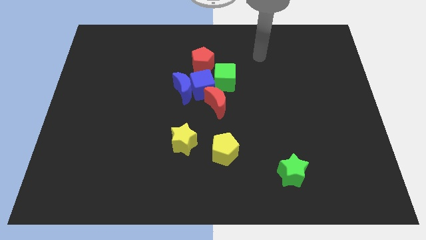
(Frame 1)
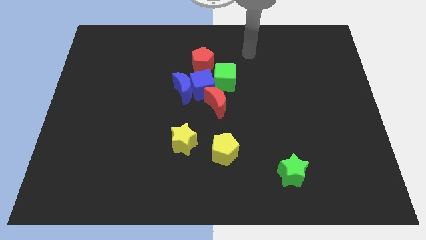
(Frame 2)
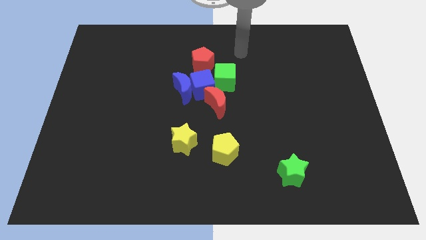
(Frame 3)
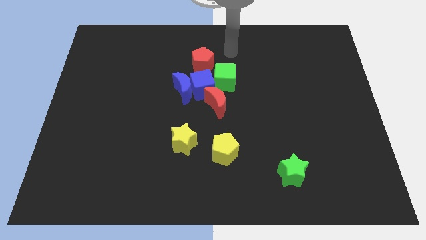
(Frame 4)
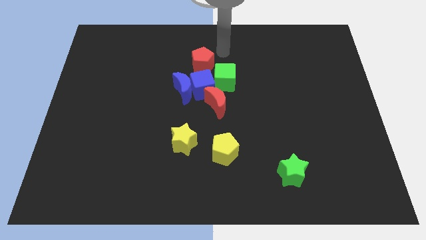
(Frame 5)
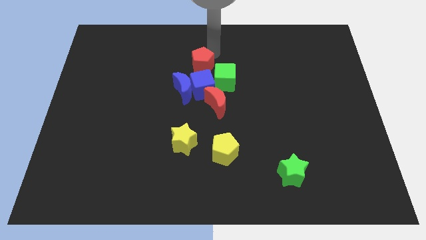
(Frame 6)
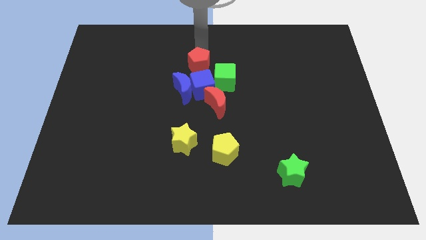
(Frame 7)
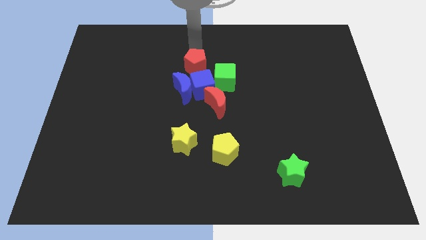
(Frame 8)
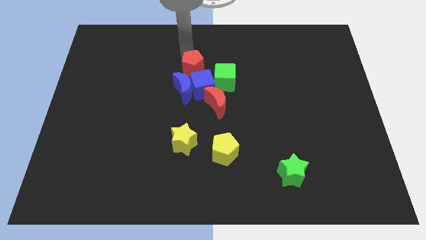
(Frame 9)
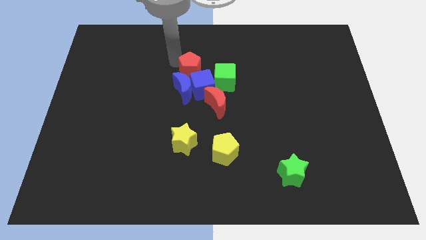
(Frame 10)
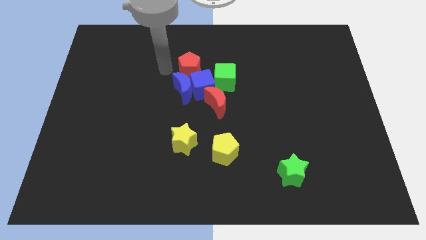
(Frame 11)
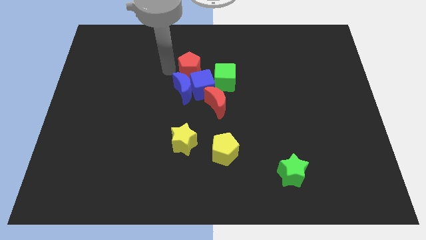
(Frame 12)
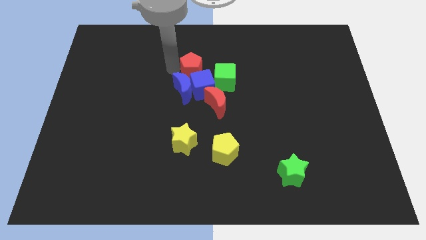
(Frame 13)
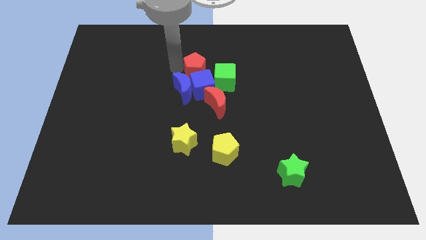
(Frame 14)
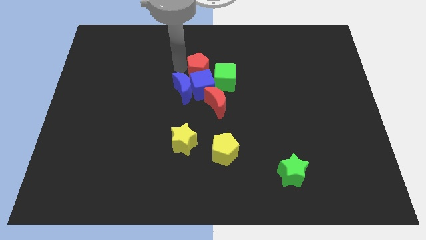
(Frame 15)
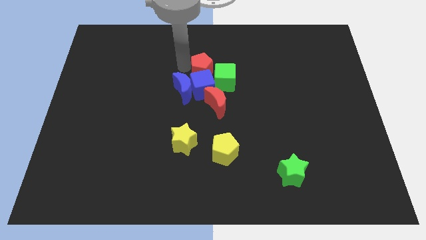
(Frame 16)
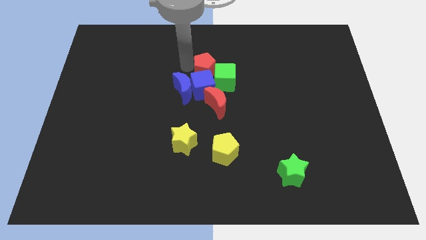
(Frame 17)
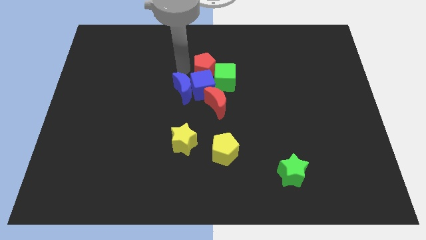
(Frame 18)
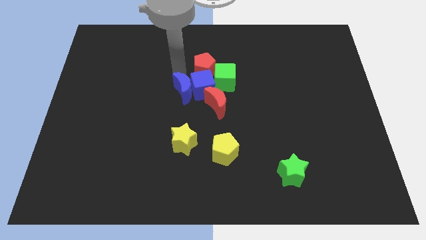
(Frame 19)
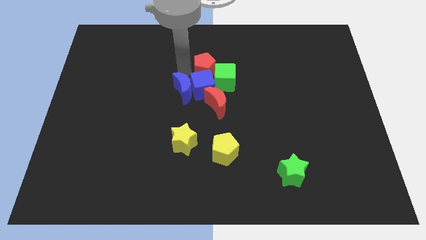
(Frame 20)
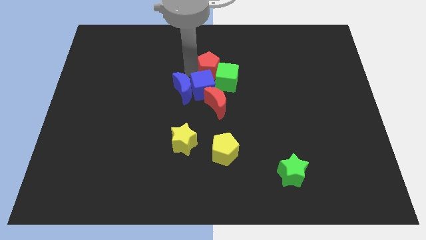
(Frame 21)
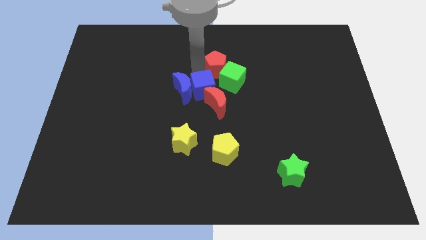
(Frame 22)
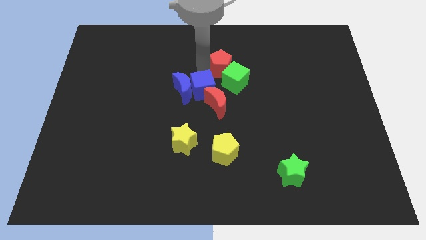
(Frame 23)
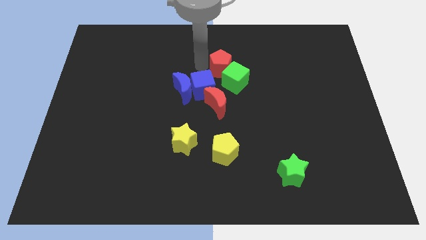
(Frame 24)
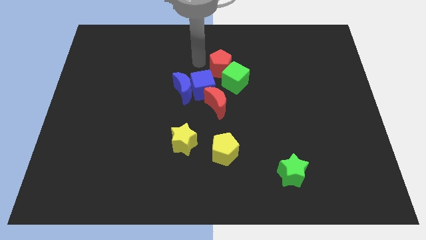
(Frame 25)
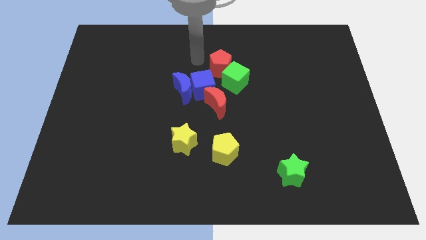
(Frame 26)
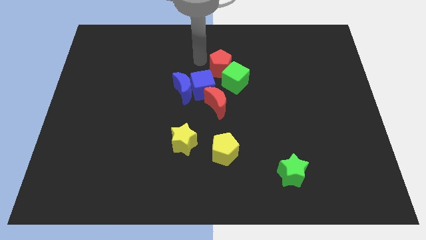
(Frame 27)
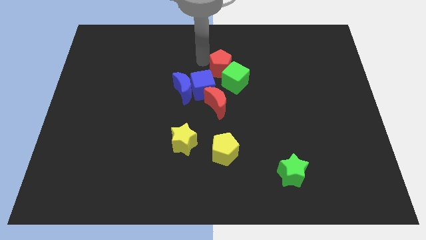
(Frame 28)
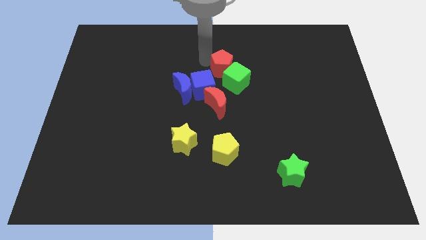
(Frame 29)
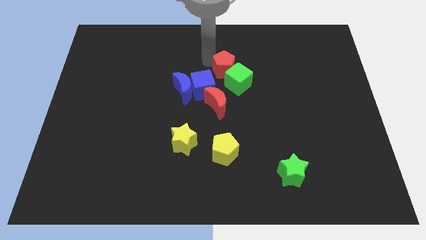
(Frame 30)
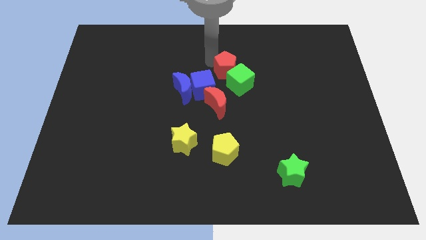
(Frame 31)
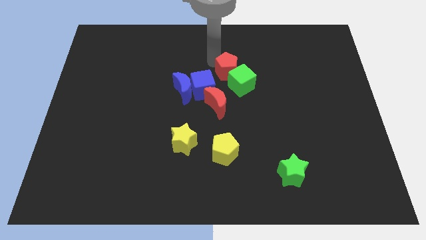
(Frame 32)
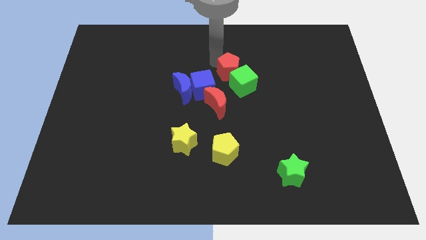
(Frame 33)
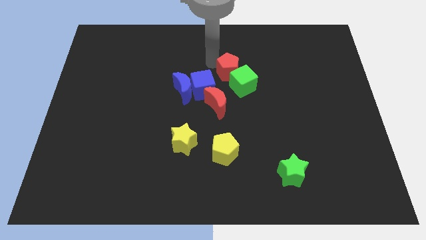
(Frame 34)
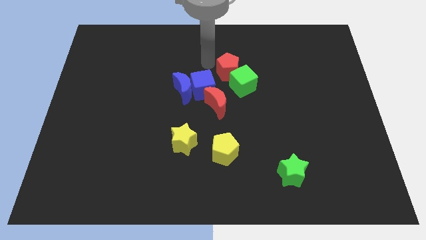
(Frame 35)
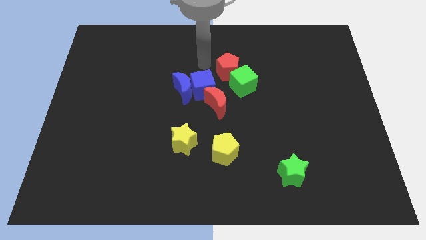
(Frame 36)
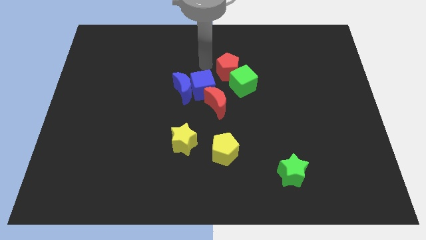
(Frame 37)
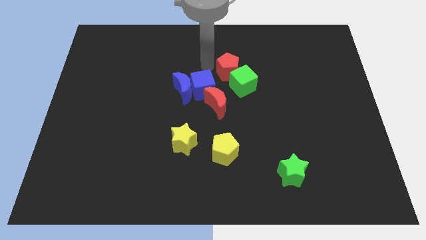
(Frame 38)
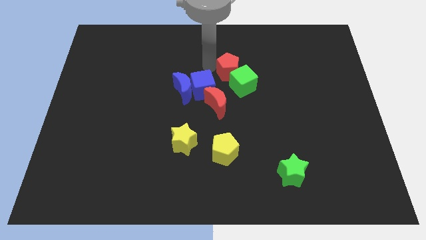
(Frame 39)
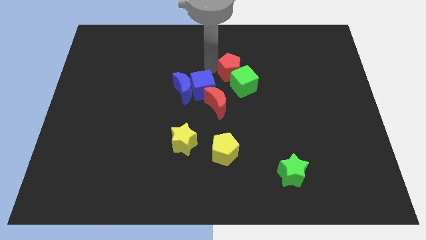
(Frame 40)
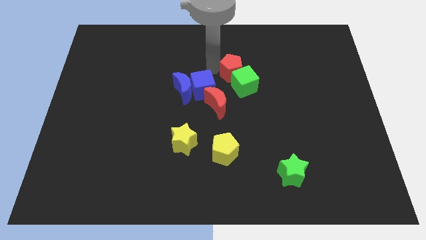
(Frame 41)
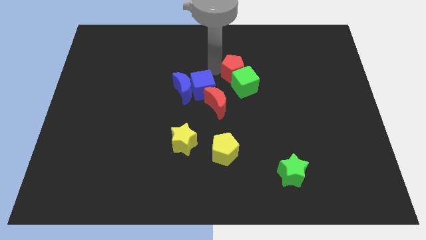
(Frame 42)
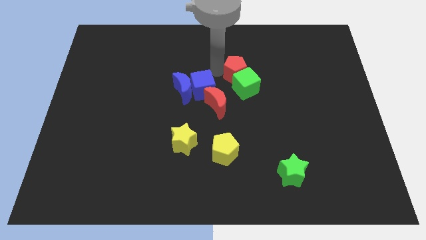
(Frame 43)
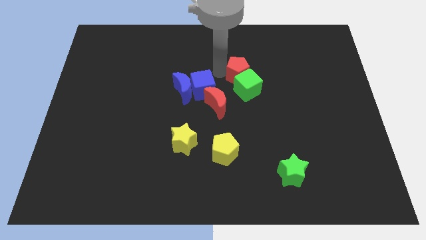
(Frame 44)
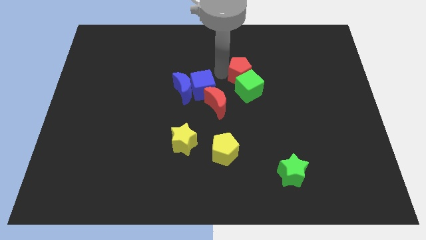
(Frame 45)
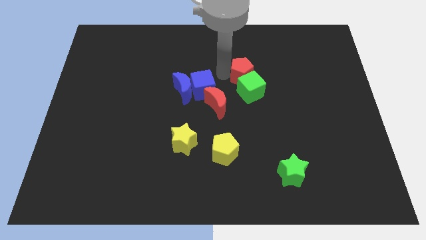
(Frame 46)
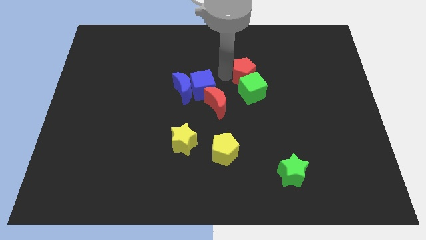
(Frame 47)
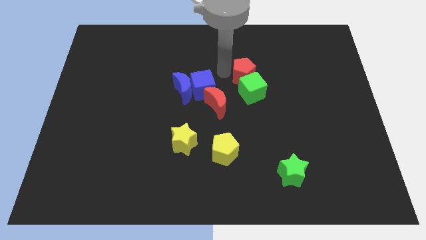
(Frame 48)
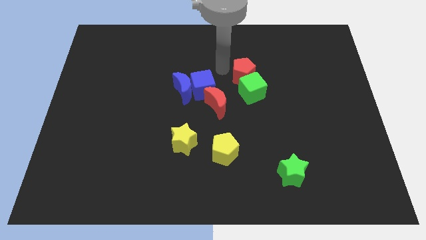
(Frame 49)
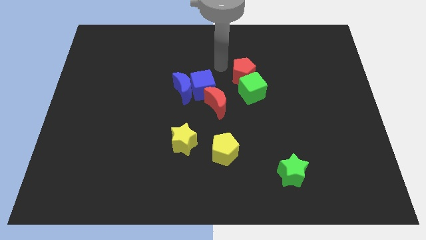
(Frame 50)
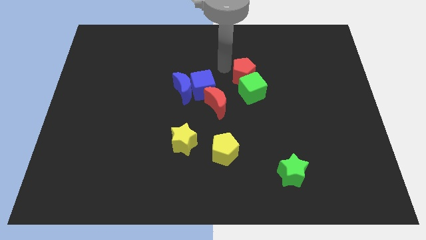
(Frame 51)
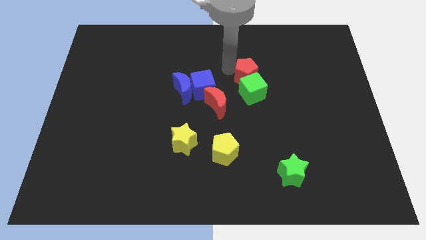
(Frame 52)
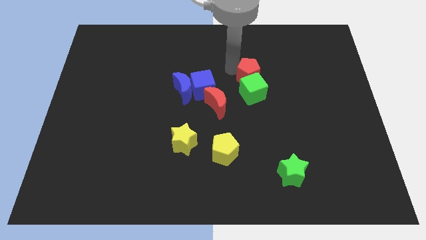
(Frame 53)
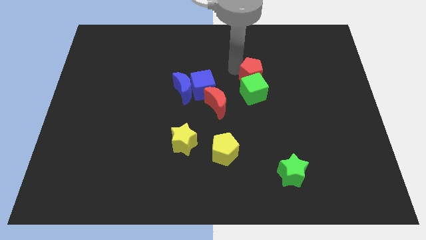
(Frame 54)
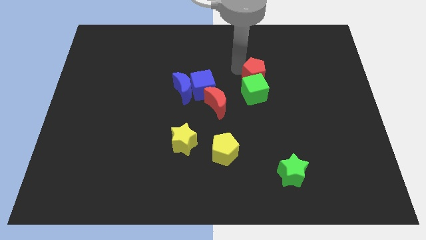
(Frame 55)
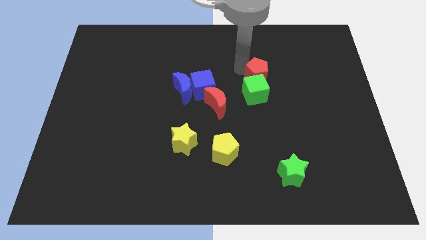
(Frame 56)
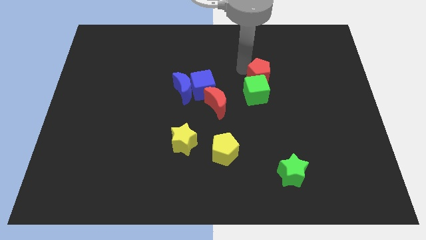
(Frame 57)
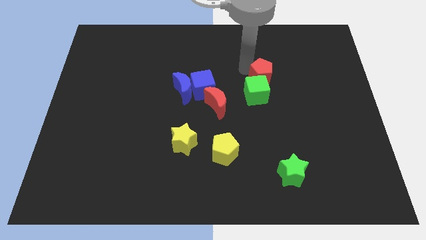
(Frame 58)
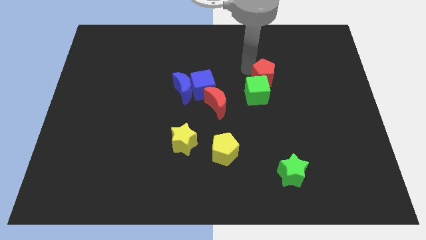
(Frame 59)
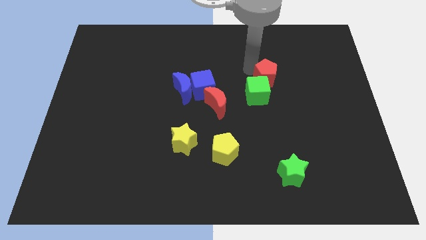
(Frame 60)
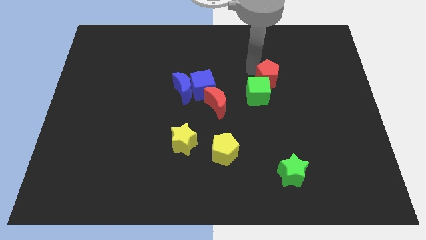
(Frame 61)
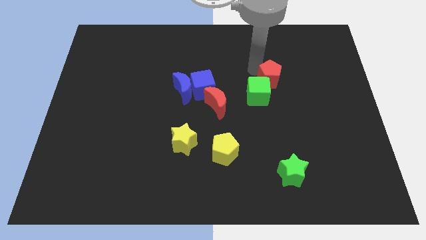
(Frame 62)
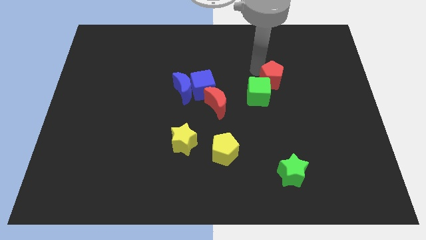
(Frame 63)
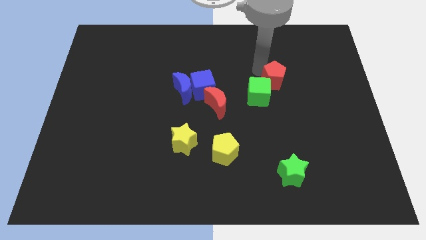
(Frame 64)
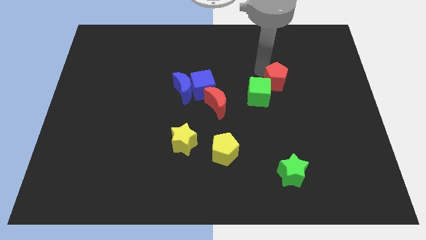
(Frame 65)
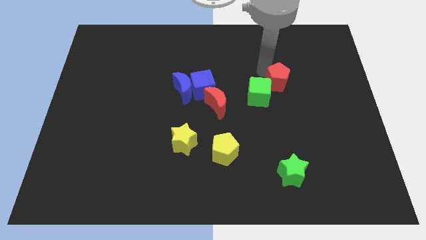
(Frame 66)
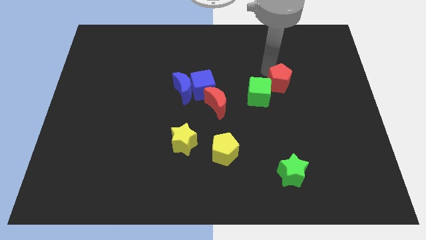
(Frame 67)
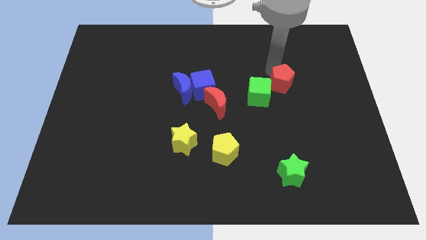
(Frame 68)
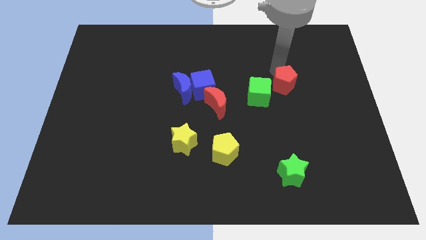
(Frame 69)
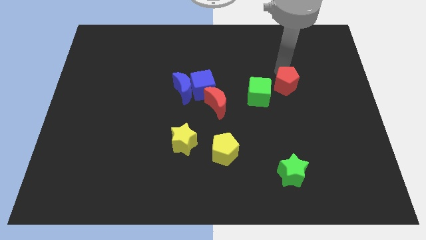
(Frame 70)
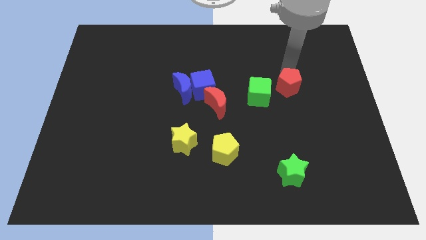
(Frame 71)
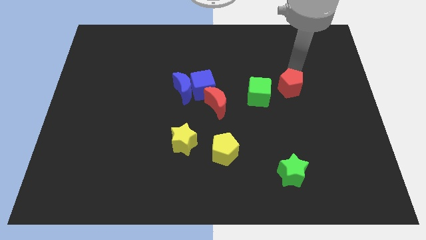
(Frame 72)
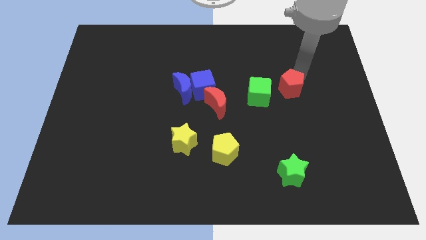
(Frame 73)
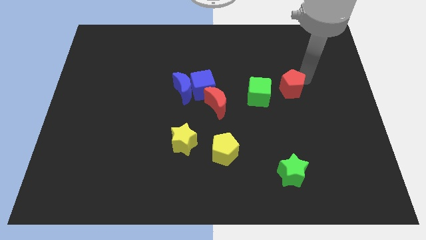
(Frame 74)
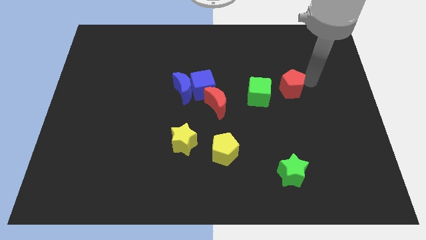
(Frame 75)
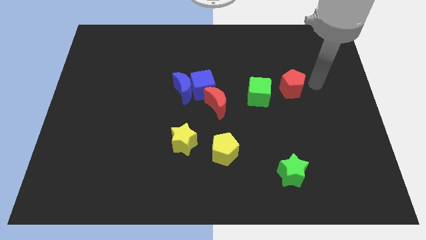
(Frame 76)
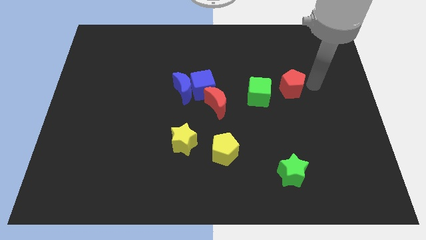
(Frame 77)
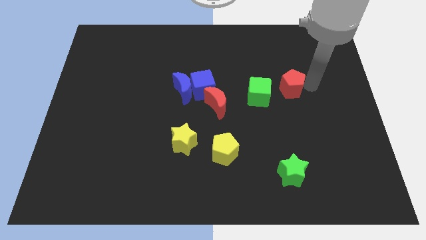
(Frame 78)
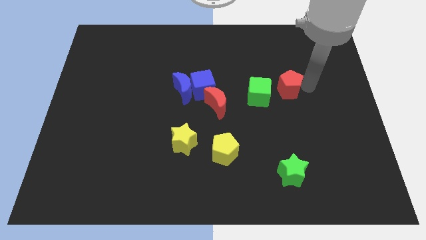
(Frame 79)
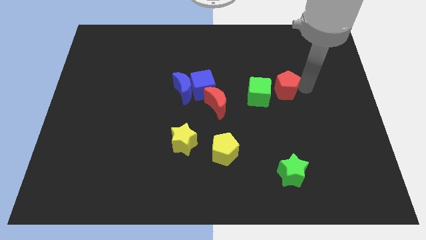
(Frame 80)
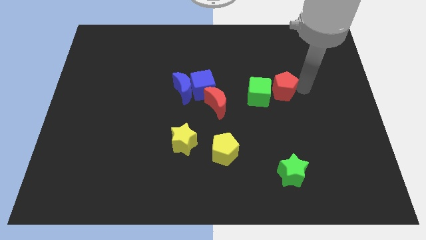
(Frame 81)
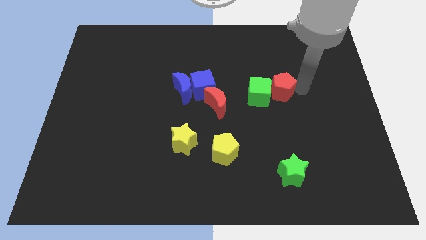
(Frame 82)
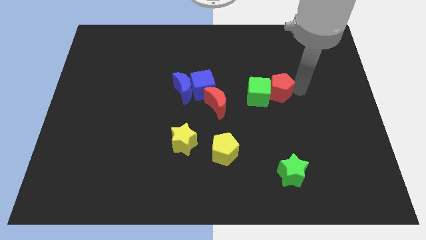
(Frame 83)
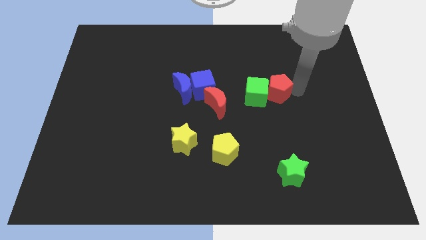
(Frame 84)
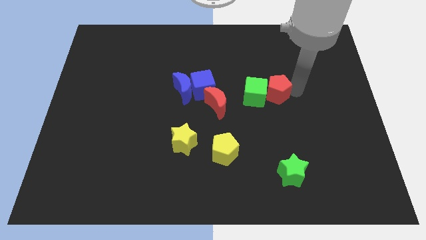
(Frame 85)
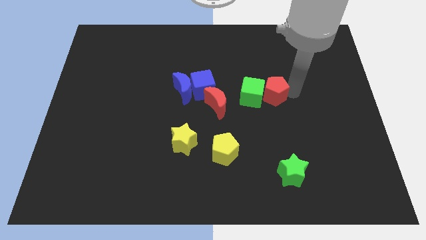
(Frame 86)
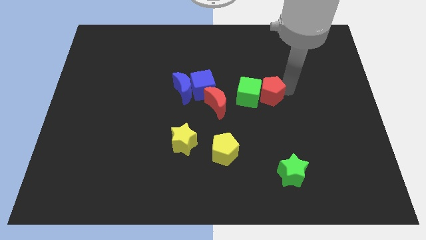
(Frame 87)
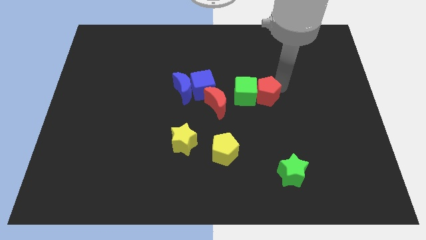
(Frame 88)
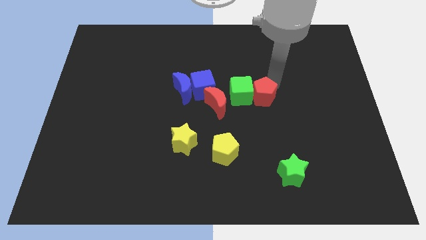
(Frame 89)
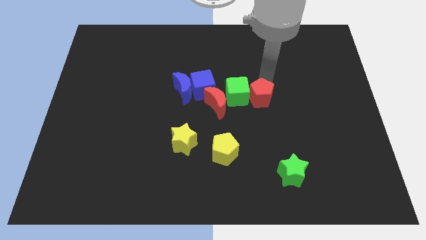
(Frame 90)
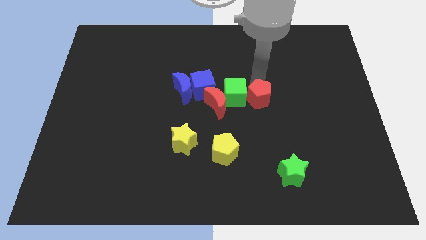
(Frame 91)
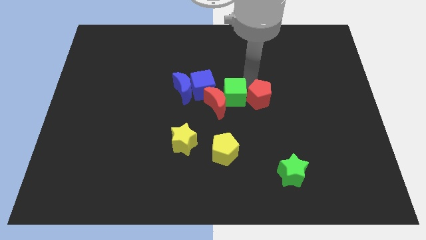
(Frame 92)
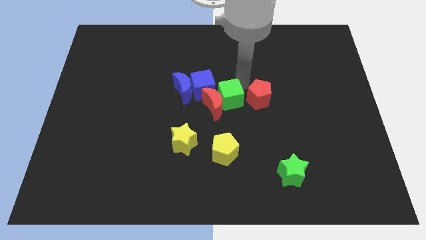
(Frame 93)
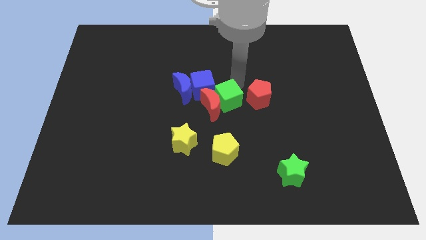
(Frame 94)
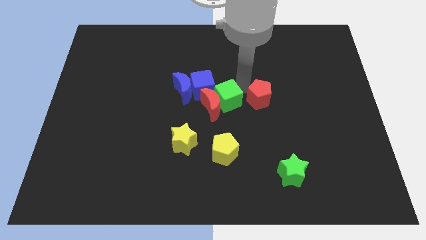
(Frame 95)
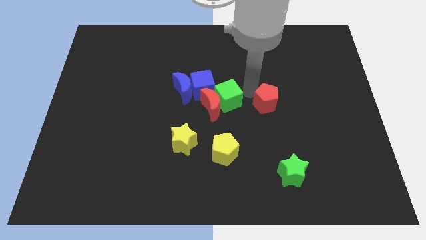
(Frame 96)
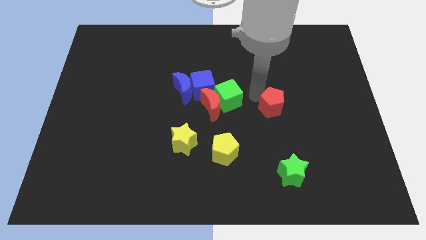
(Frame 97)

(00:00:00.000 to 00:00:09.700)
push the red pentagon diagonally down and right
